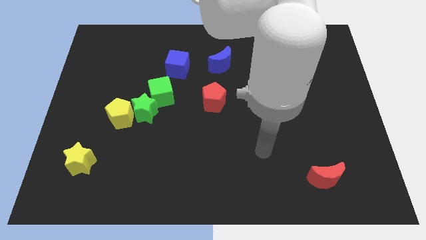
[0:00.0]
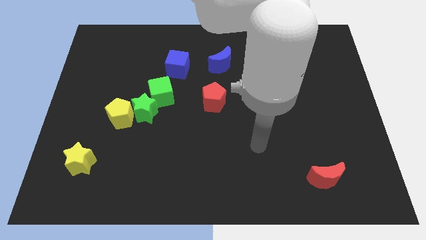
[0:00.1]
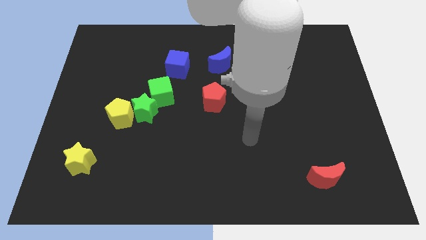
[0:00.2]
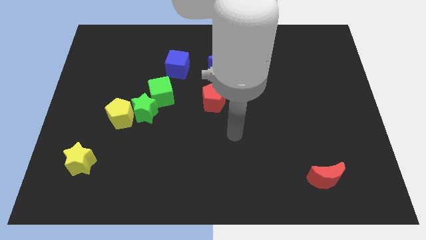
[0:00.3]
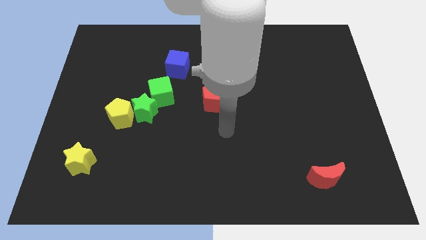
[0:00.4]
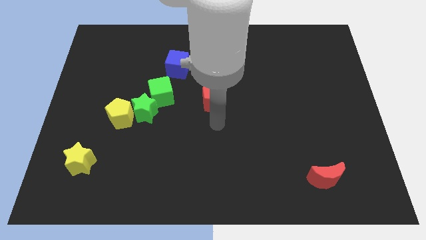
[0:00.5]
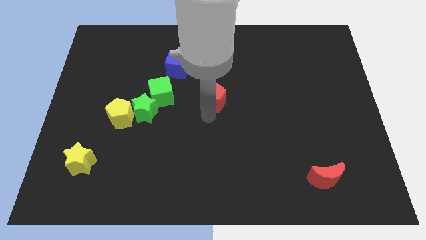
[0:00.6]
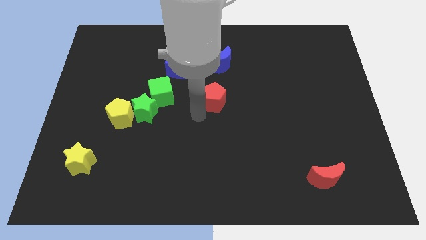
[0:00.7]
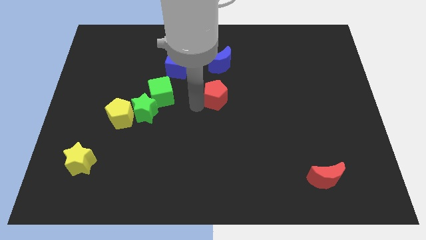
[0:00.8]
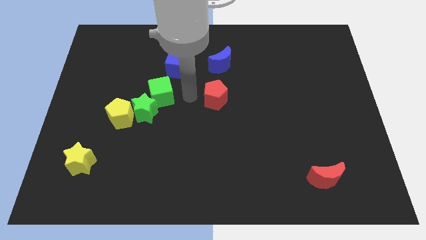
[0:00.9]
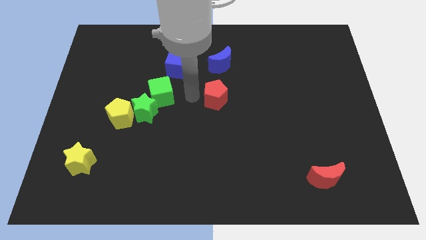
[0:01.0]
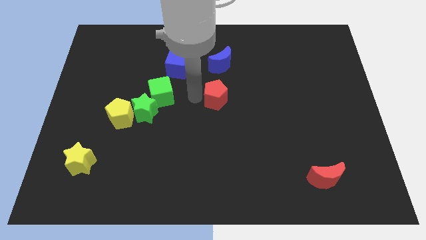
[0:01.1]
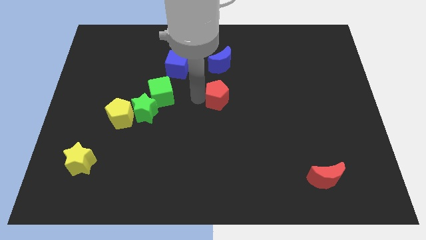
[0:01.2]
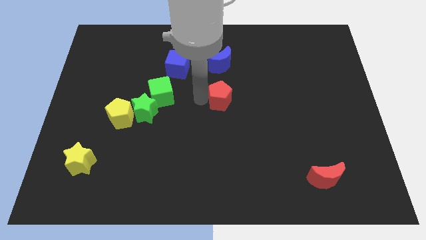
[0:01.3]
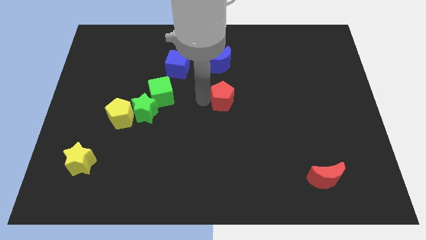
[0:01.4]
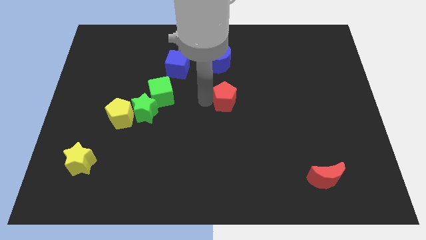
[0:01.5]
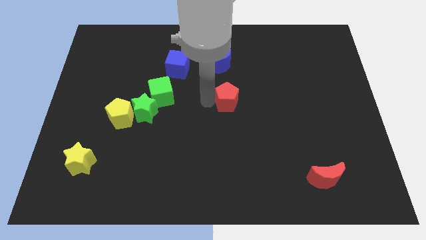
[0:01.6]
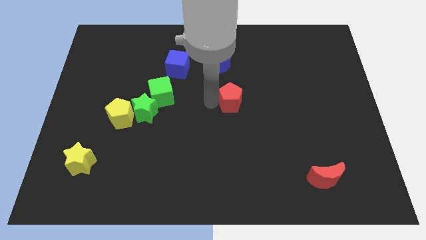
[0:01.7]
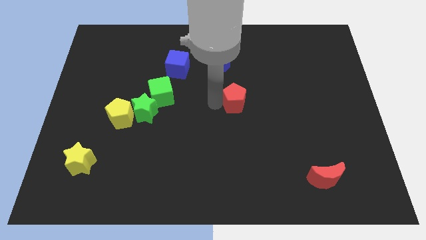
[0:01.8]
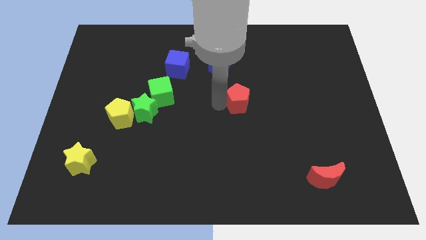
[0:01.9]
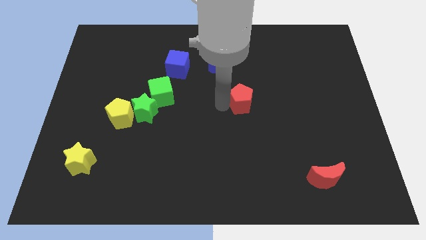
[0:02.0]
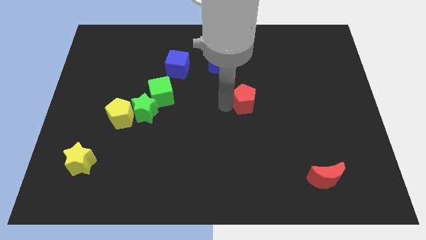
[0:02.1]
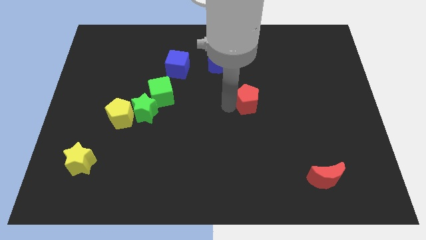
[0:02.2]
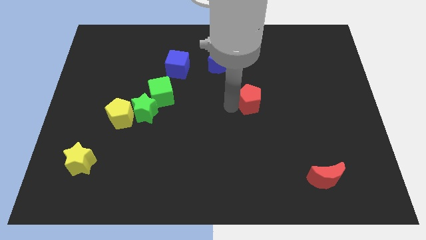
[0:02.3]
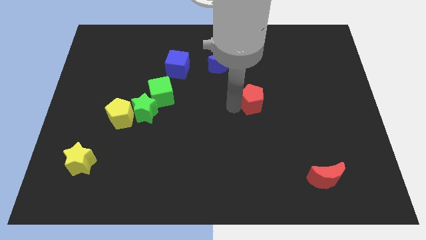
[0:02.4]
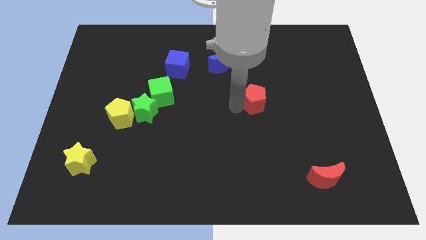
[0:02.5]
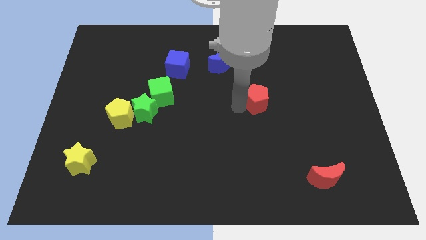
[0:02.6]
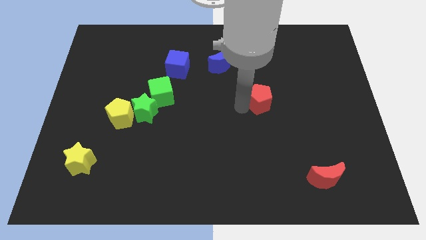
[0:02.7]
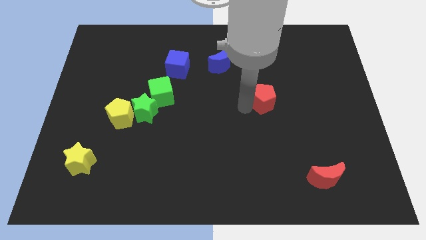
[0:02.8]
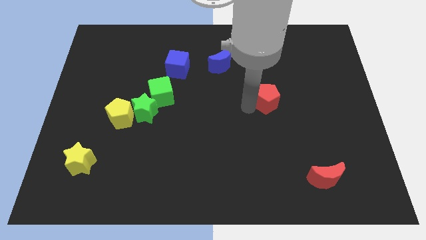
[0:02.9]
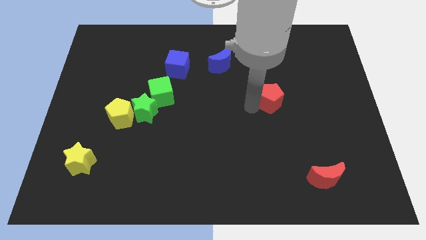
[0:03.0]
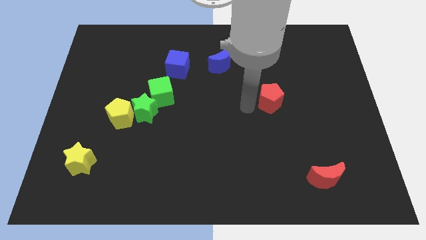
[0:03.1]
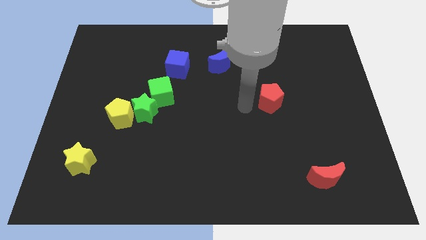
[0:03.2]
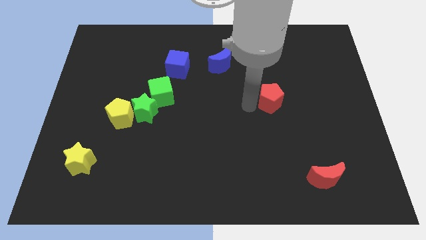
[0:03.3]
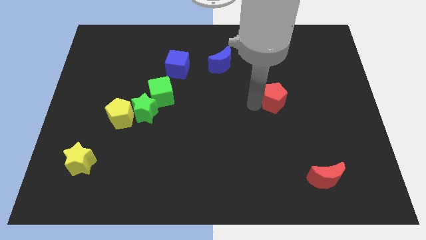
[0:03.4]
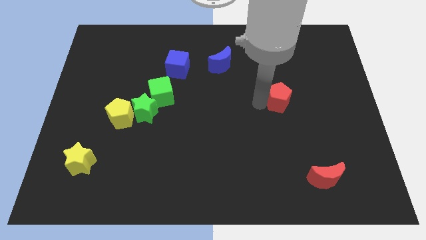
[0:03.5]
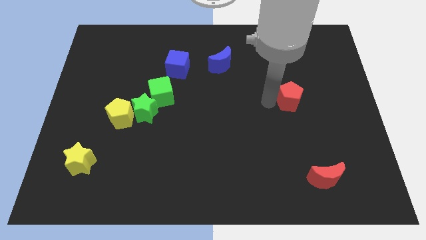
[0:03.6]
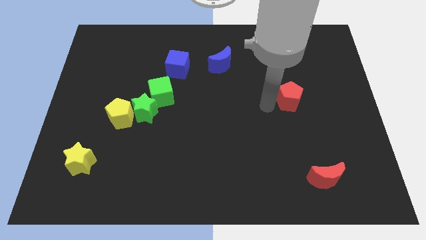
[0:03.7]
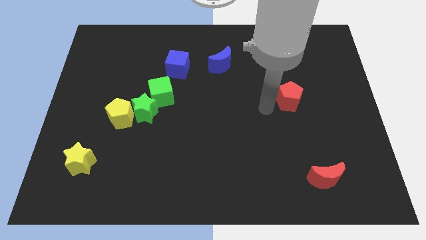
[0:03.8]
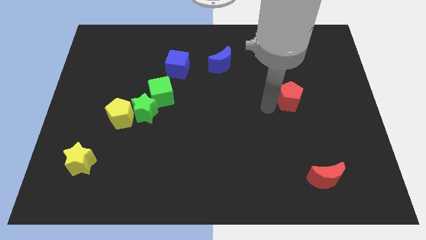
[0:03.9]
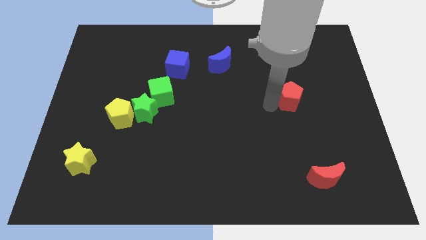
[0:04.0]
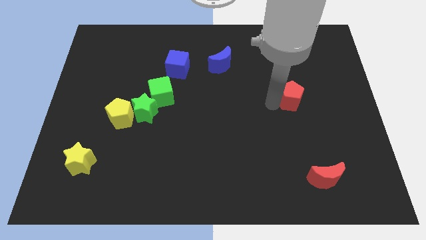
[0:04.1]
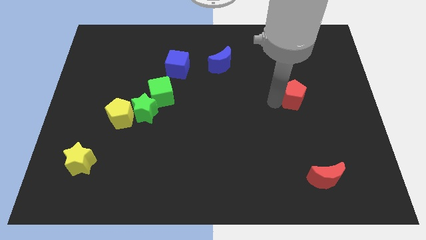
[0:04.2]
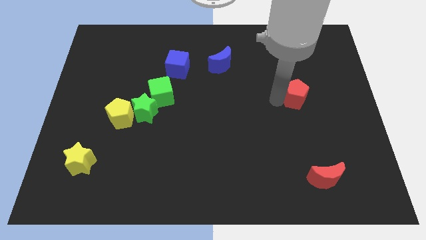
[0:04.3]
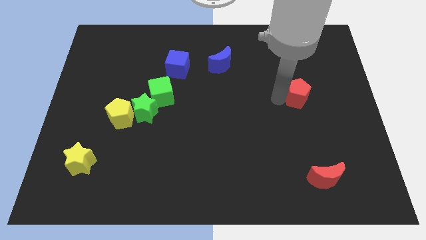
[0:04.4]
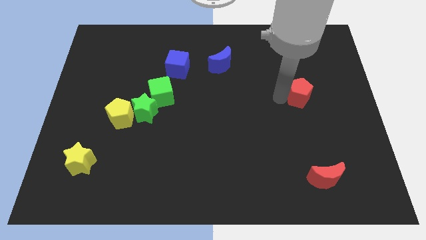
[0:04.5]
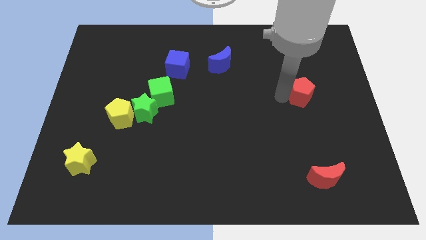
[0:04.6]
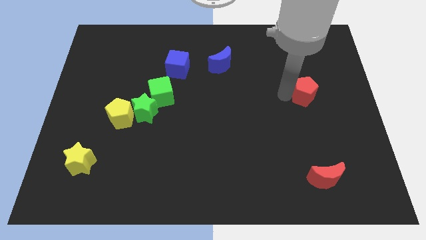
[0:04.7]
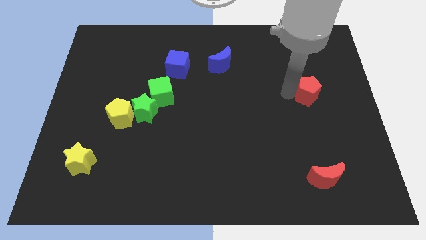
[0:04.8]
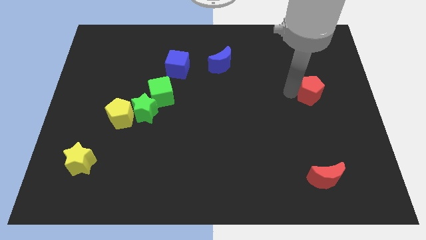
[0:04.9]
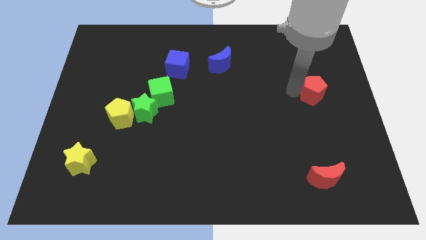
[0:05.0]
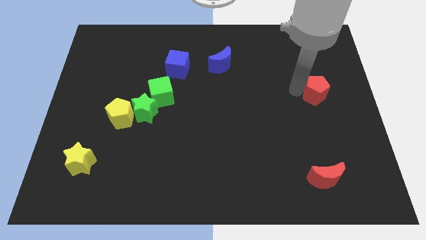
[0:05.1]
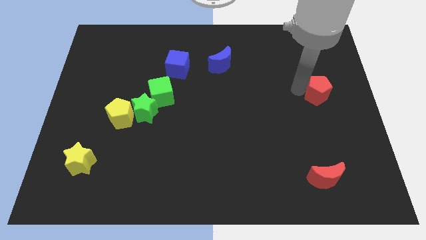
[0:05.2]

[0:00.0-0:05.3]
push the red pentagon to the right side

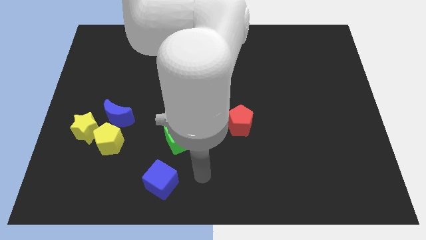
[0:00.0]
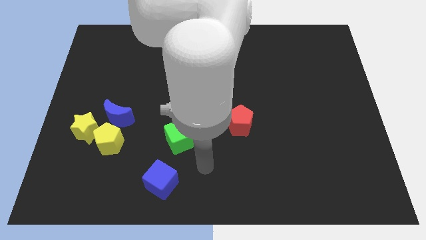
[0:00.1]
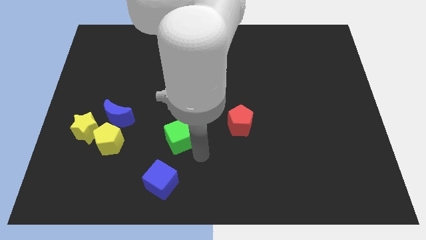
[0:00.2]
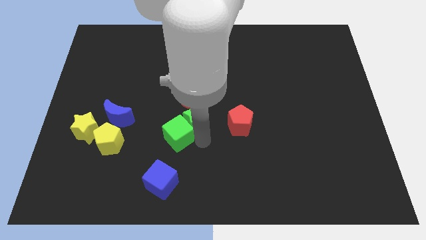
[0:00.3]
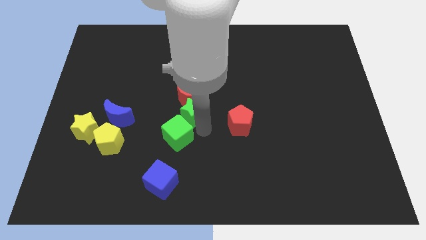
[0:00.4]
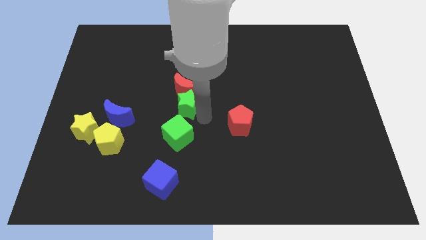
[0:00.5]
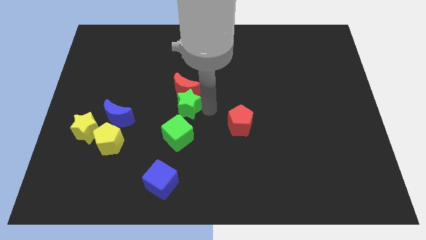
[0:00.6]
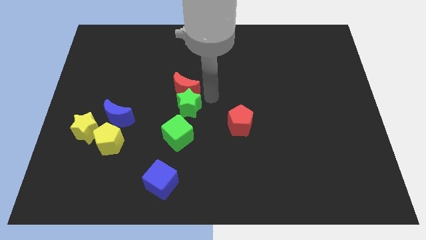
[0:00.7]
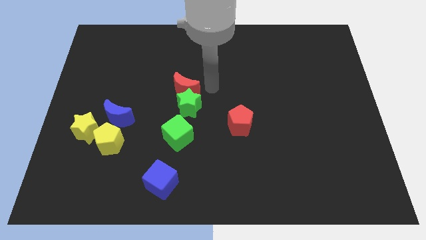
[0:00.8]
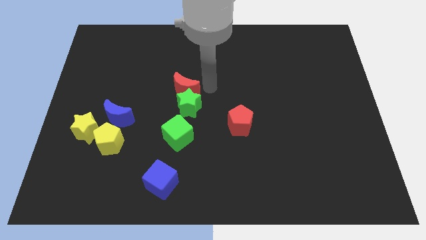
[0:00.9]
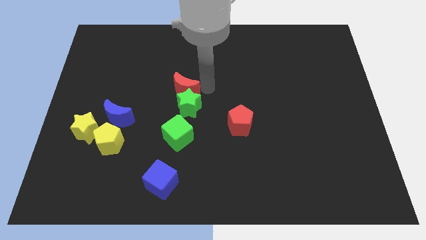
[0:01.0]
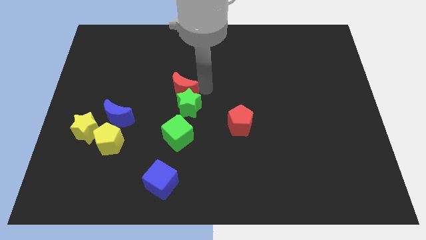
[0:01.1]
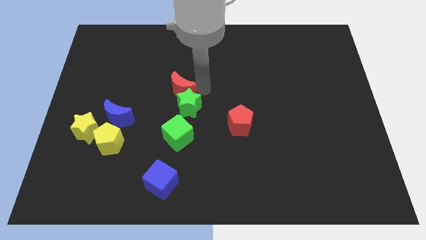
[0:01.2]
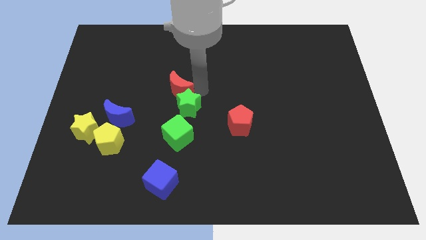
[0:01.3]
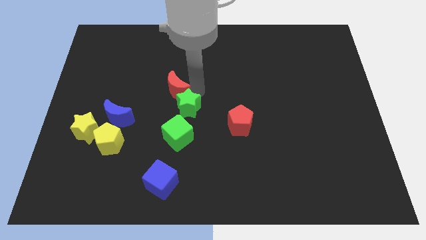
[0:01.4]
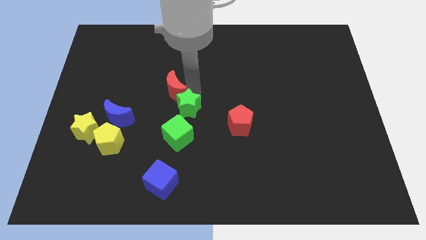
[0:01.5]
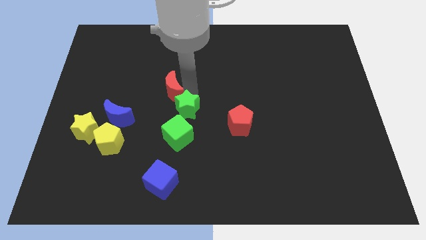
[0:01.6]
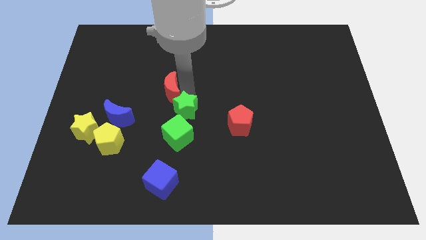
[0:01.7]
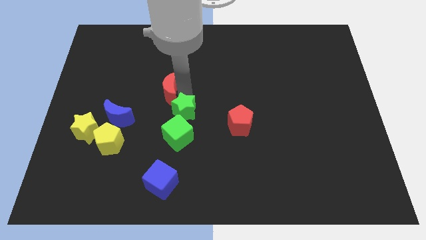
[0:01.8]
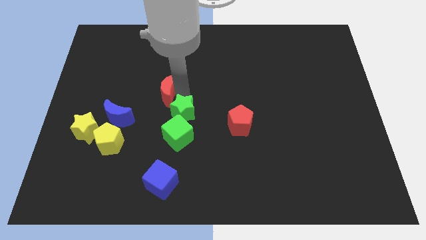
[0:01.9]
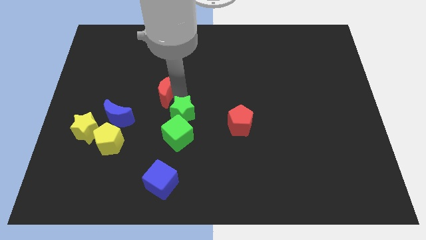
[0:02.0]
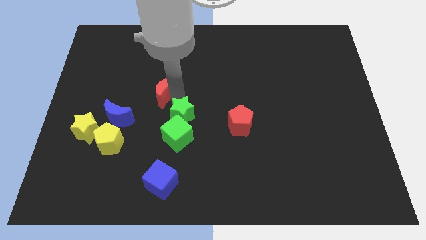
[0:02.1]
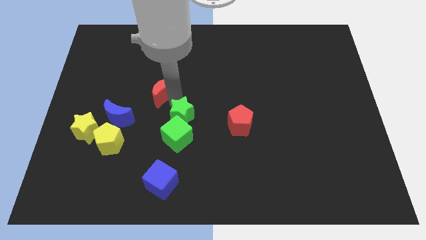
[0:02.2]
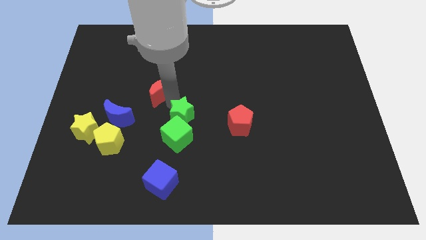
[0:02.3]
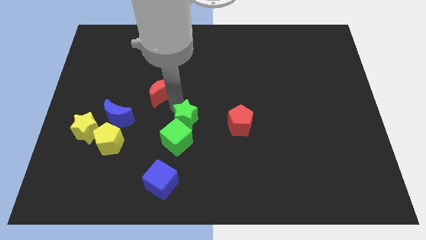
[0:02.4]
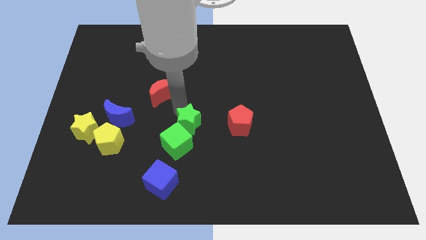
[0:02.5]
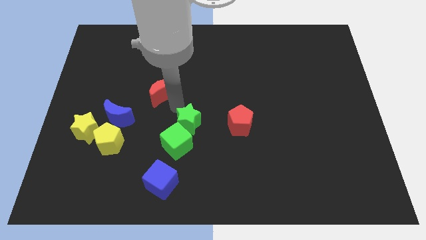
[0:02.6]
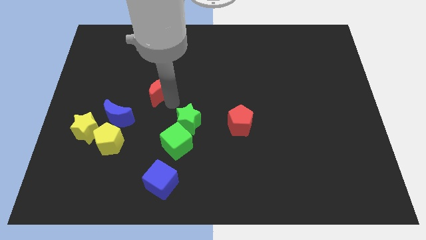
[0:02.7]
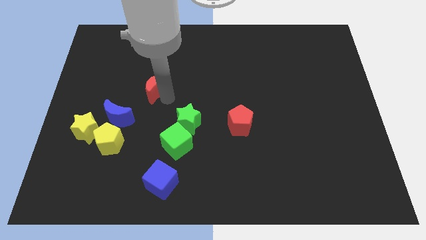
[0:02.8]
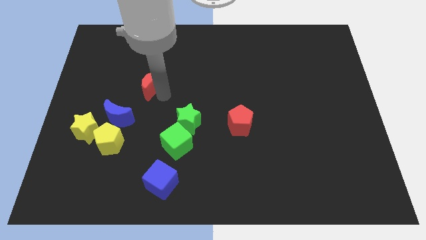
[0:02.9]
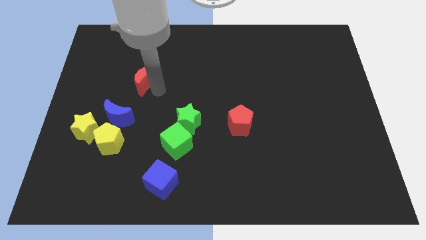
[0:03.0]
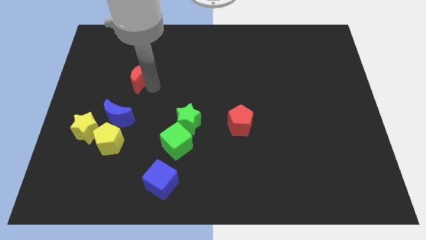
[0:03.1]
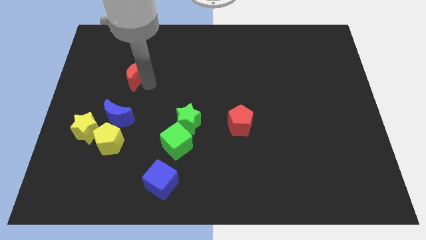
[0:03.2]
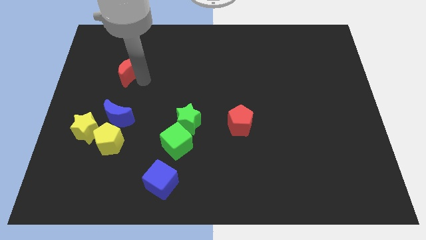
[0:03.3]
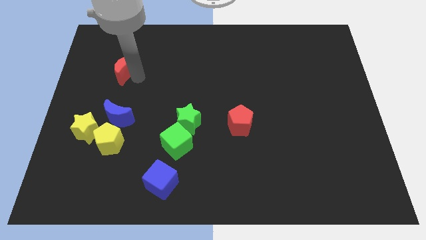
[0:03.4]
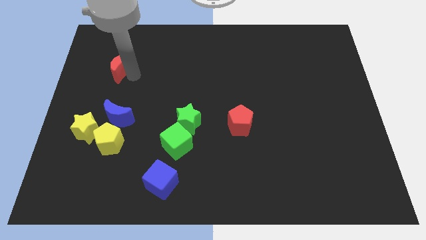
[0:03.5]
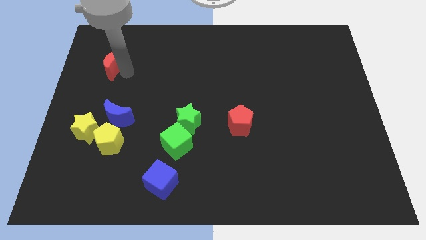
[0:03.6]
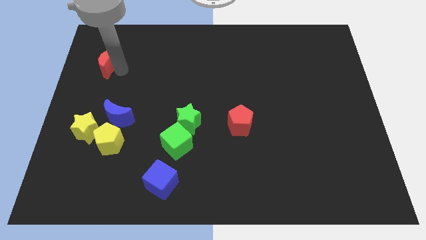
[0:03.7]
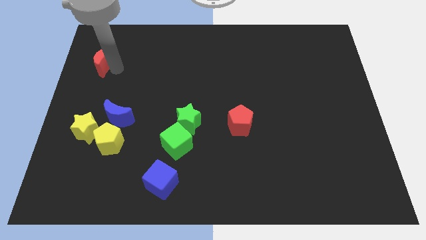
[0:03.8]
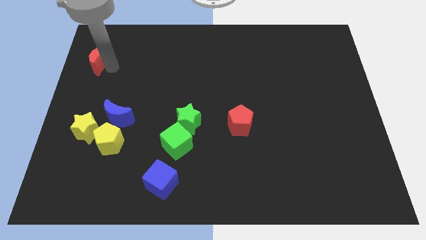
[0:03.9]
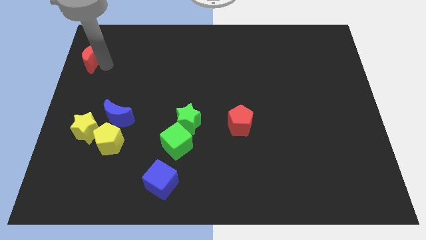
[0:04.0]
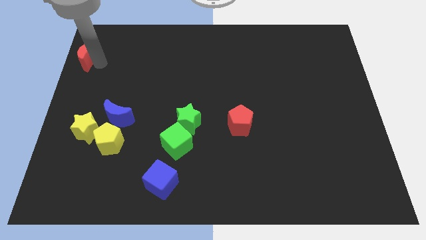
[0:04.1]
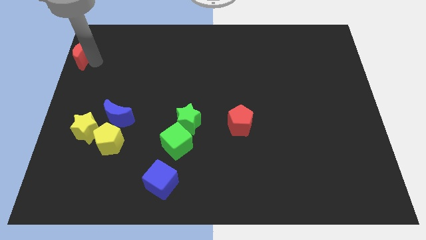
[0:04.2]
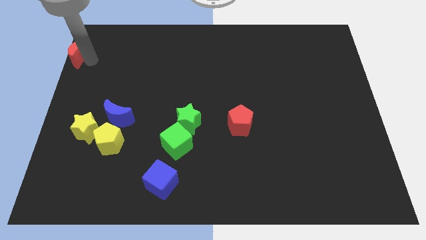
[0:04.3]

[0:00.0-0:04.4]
slide the red moon to the top left of the board
